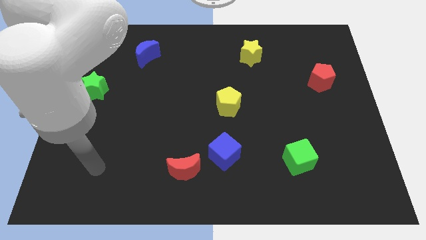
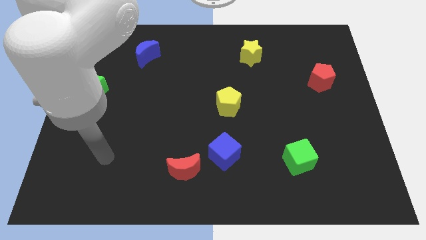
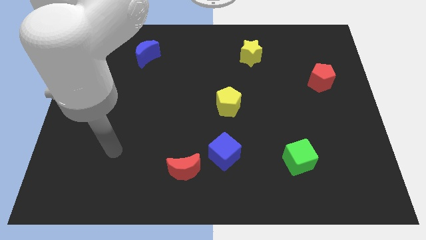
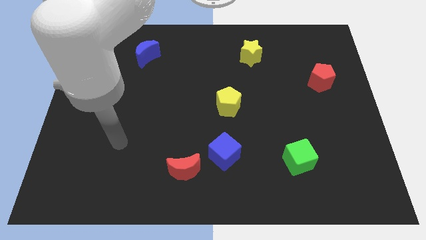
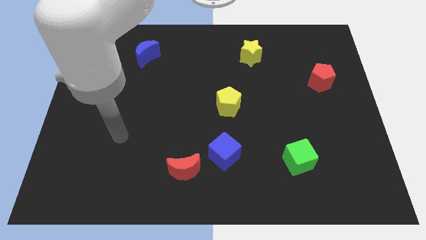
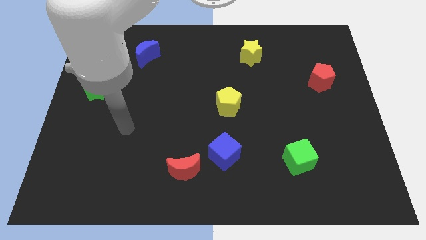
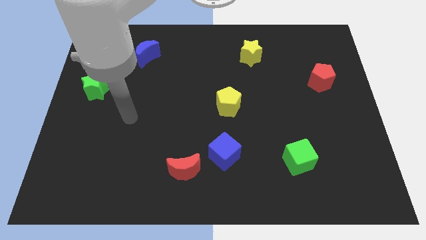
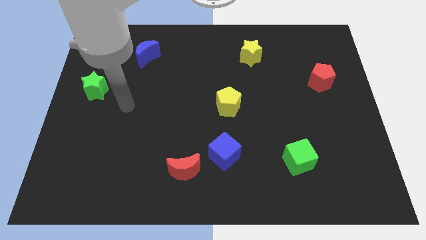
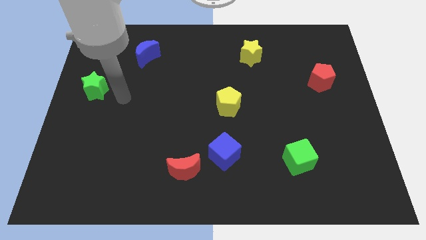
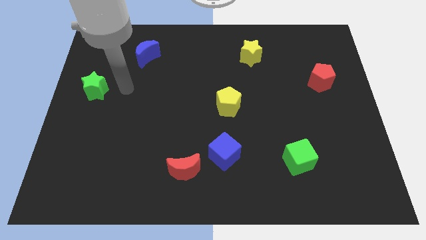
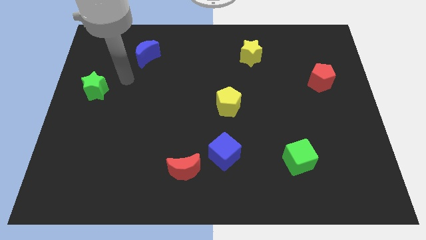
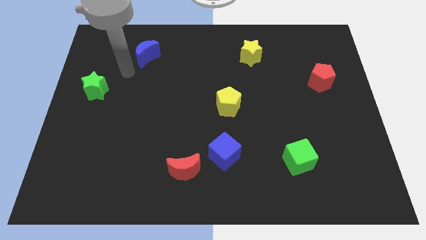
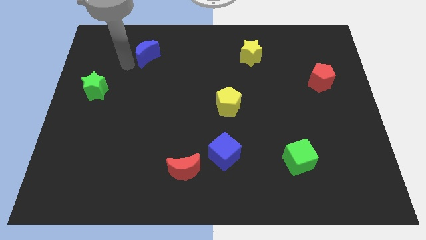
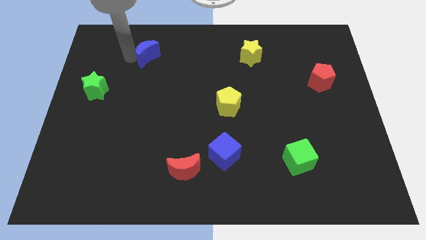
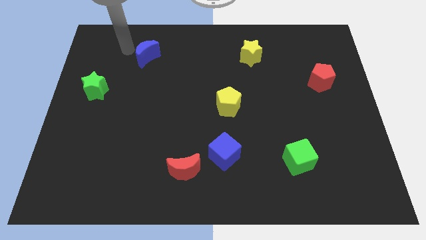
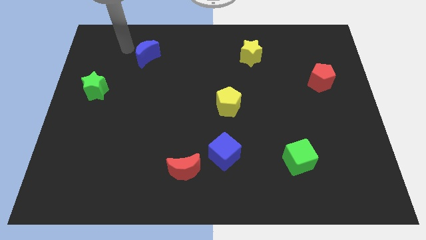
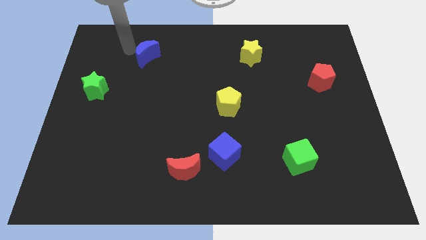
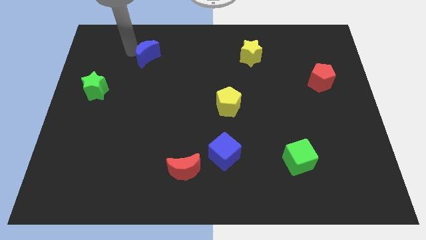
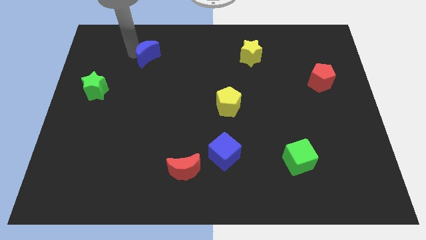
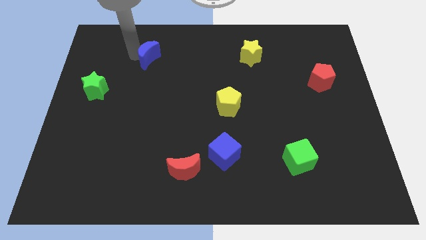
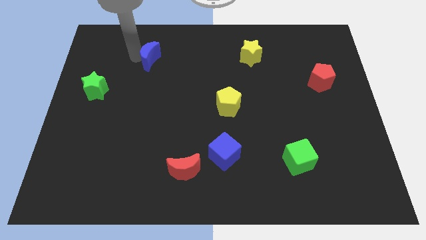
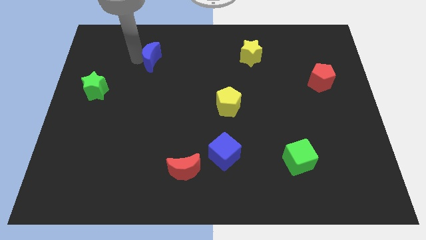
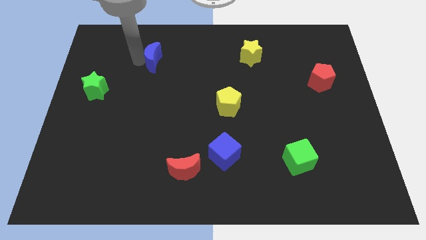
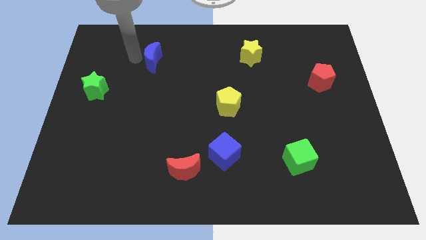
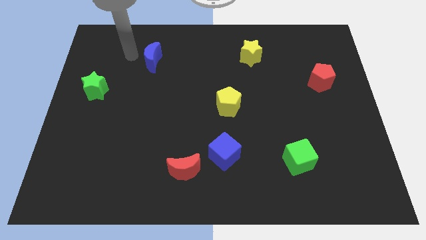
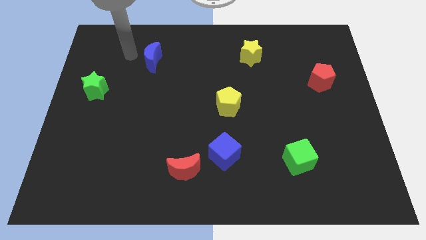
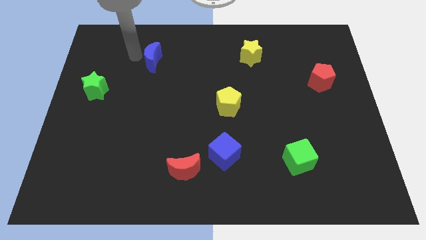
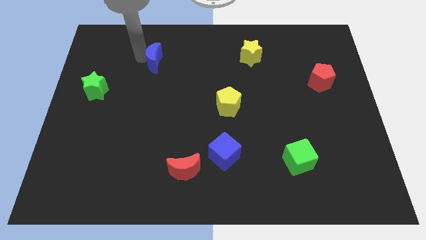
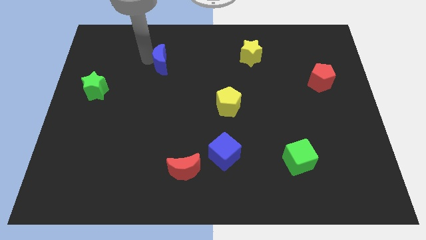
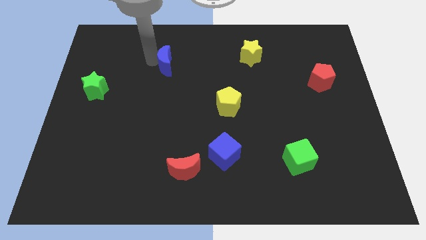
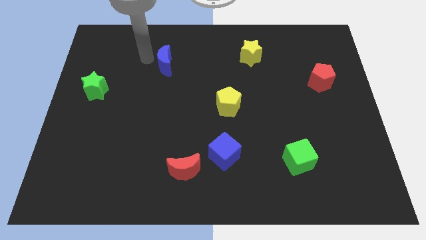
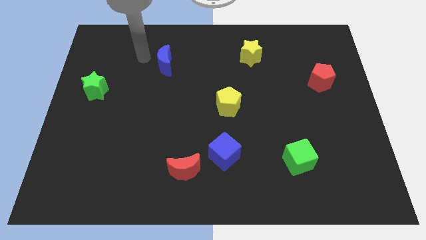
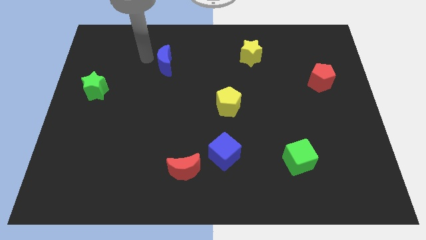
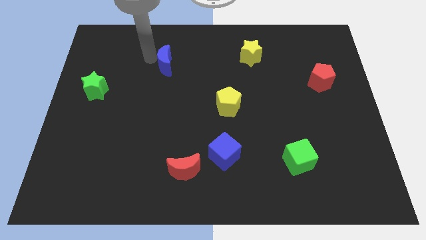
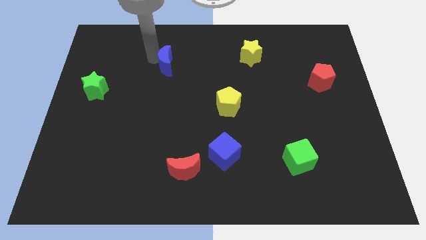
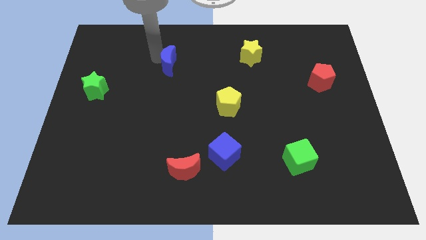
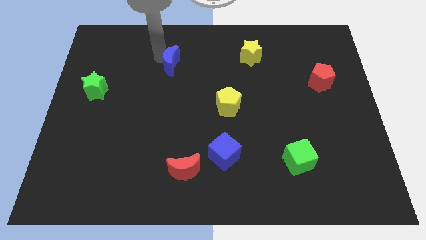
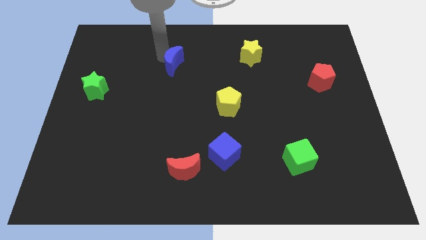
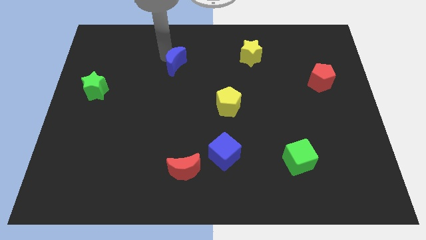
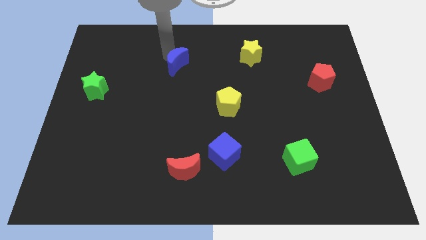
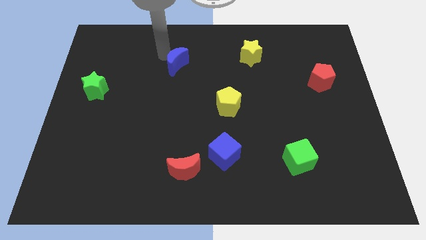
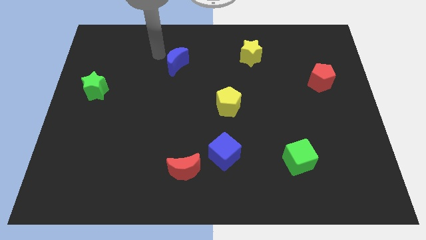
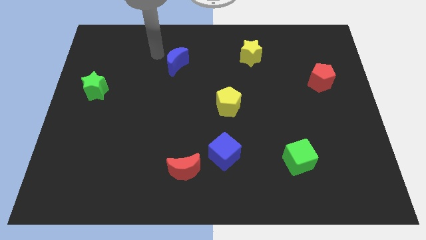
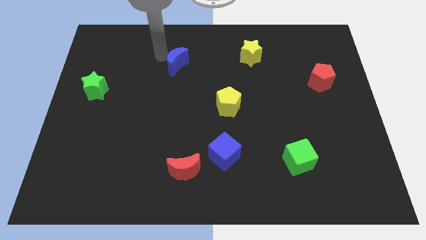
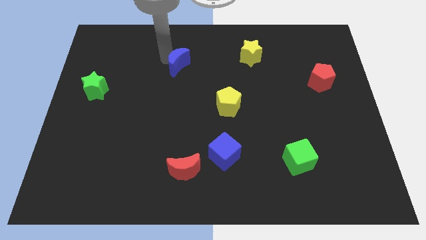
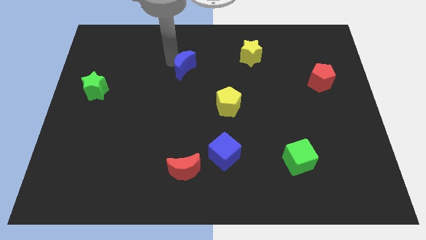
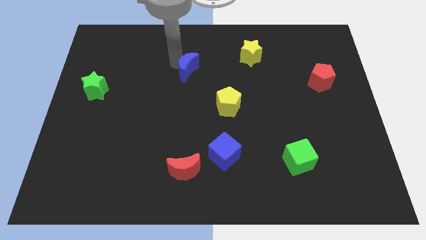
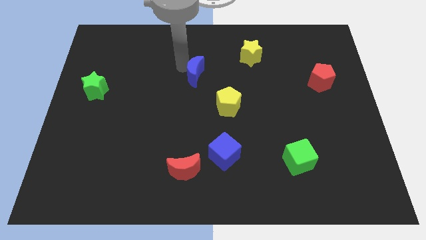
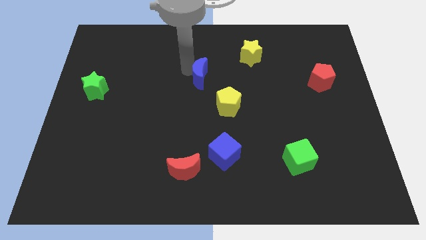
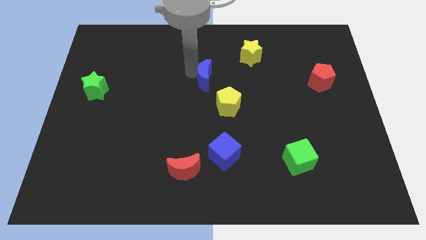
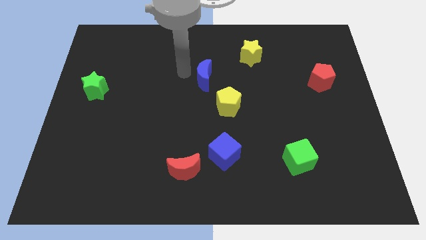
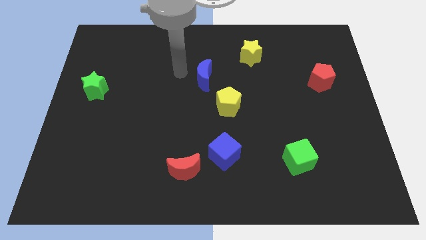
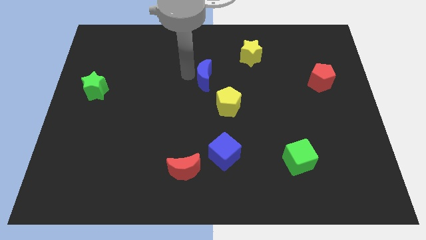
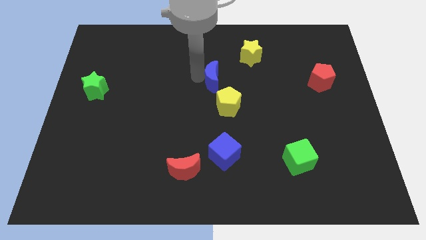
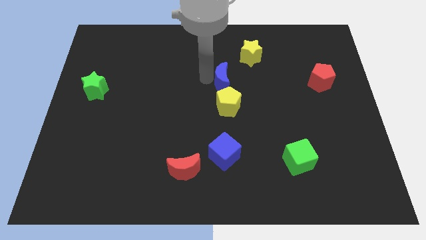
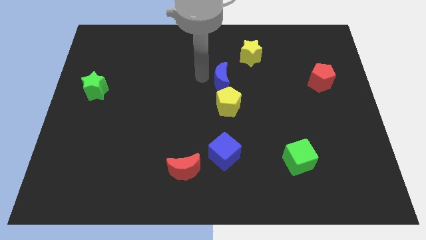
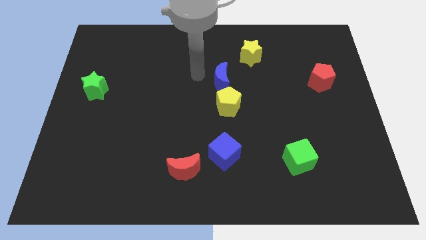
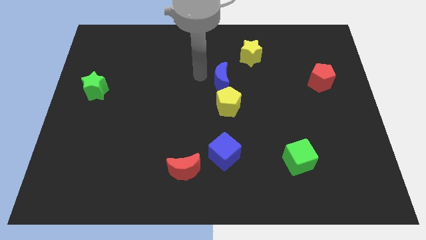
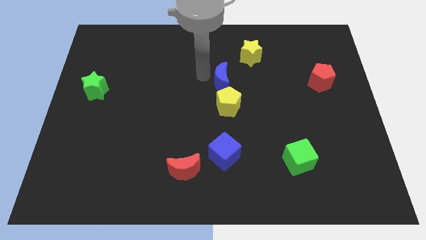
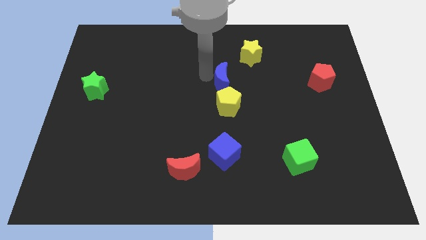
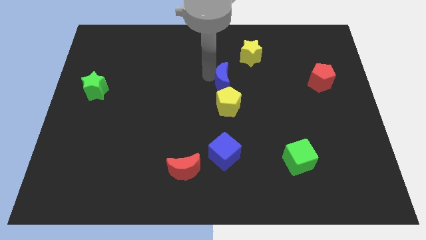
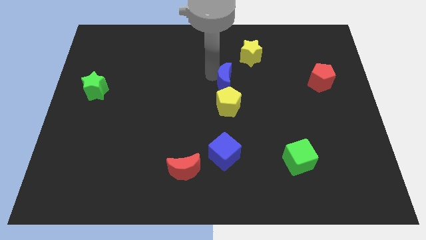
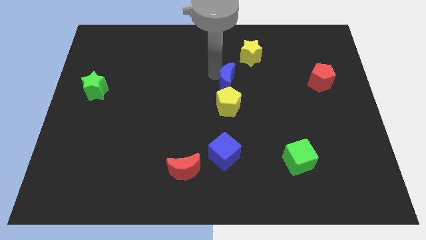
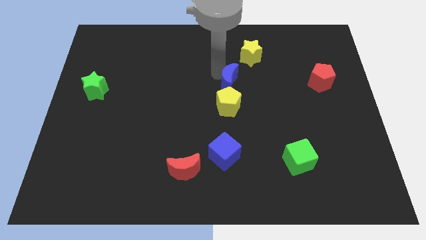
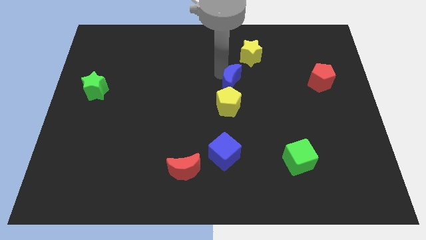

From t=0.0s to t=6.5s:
put the blue moon to the top right side of the yellow pentagon

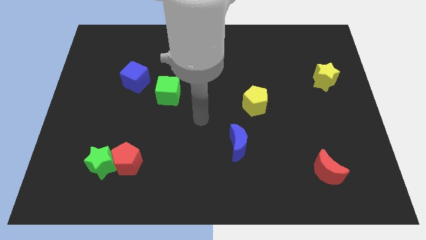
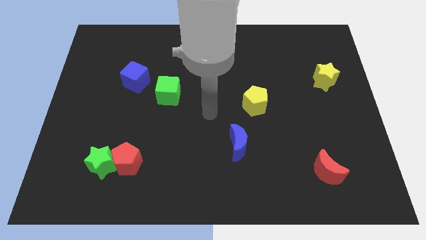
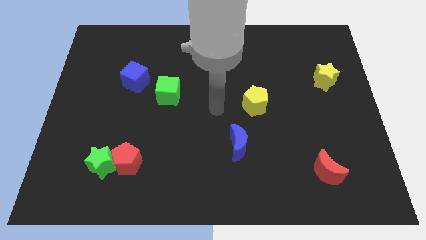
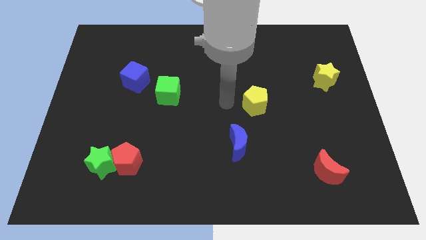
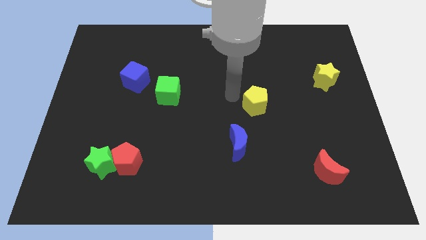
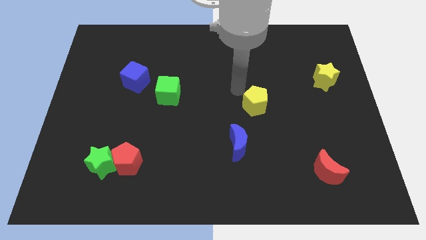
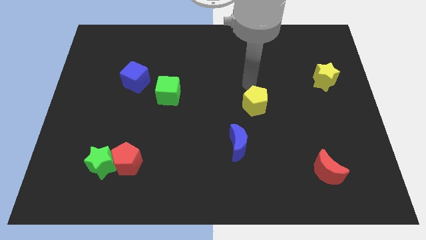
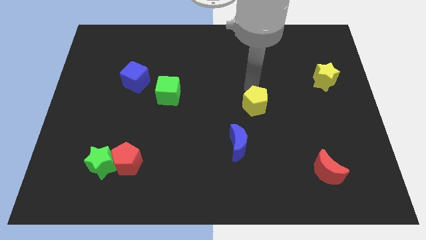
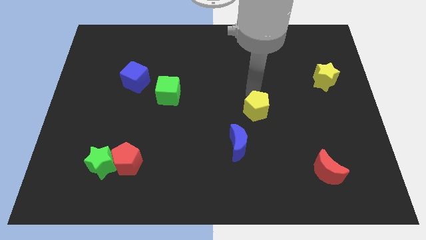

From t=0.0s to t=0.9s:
push the yellow pentagon to the top right side of the blue moon

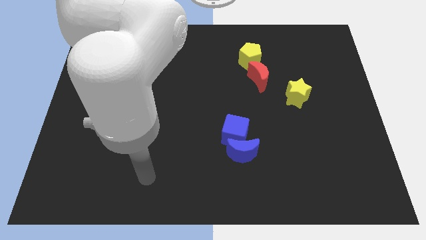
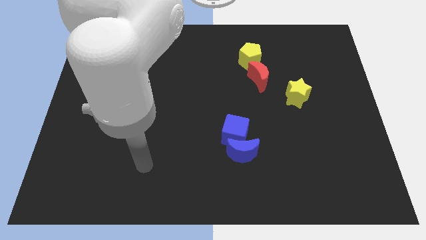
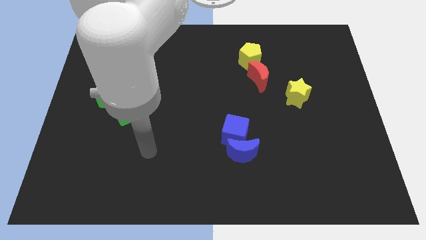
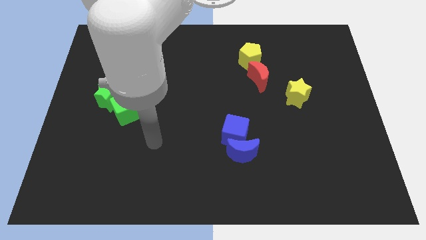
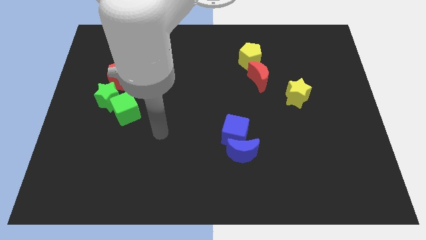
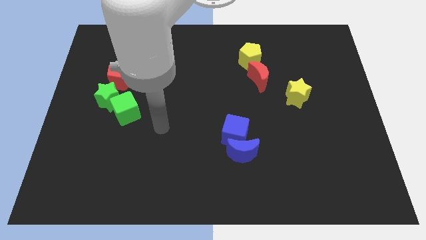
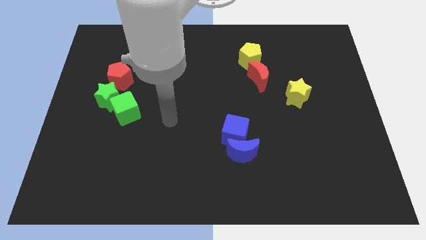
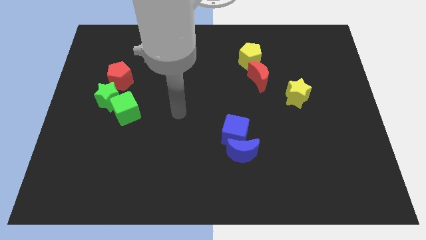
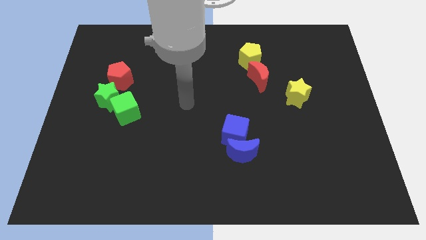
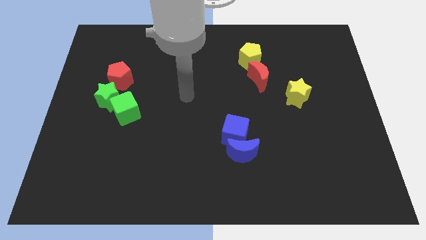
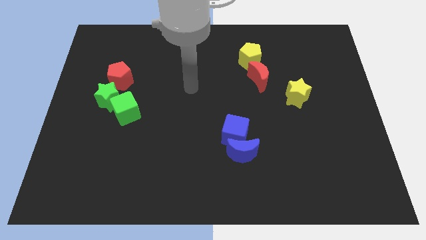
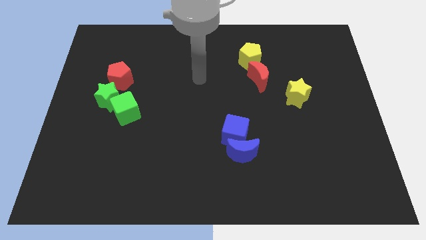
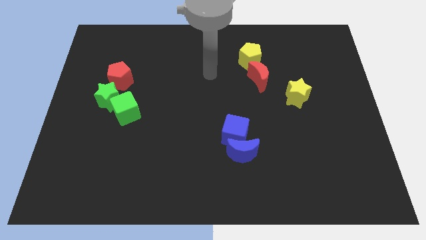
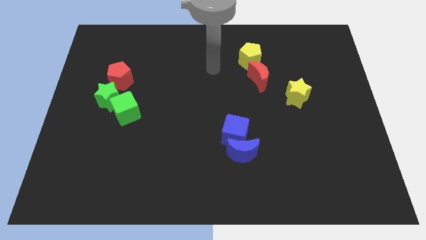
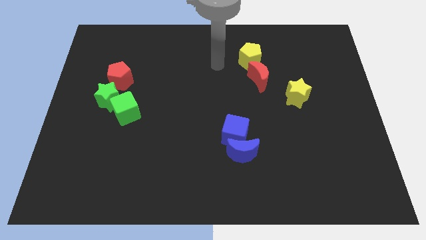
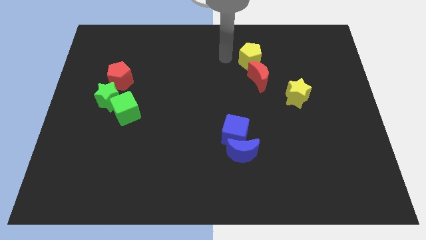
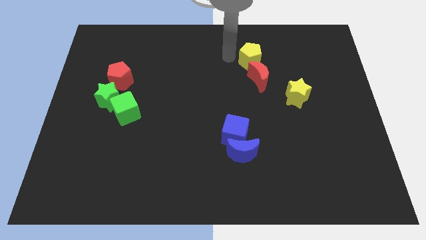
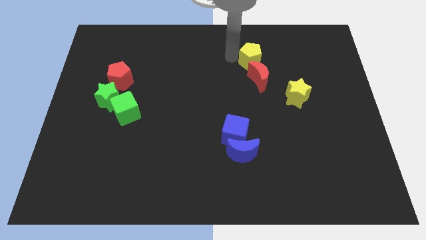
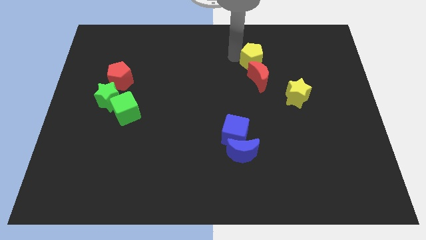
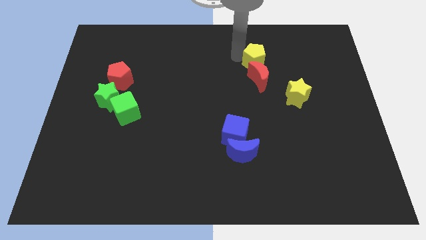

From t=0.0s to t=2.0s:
push the yellow pentagon to the top right side of the red moon
